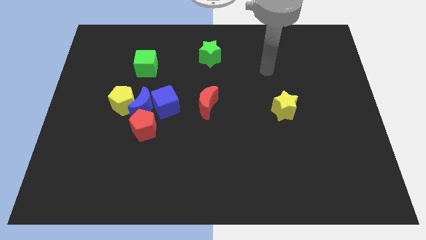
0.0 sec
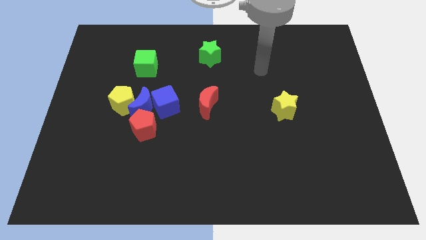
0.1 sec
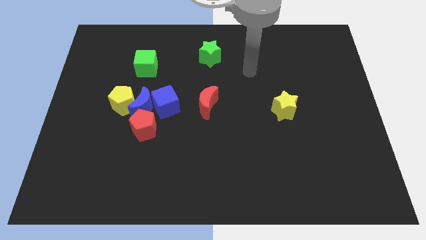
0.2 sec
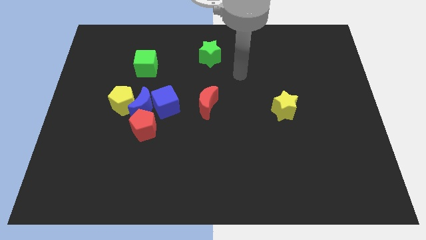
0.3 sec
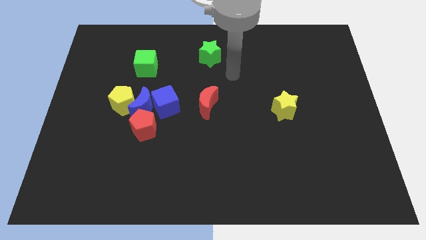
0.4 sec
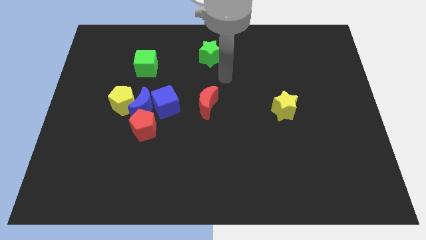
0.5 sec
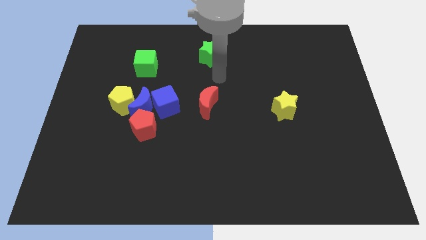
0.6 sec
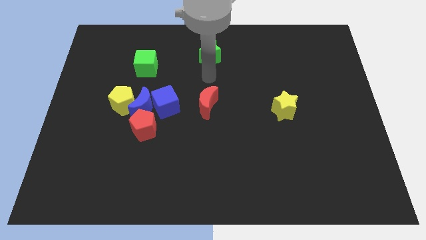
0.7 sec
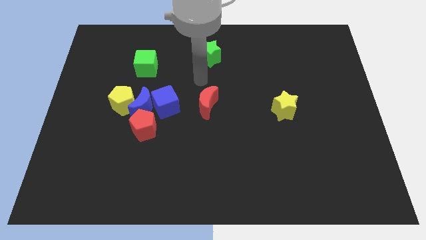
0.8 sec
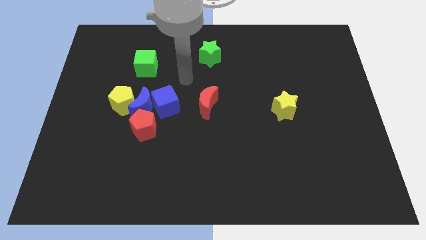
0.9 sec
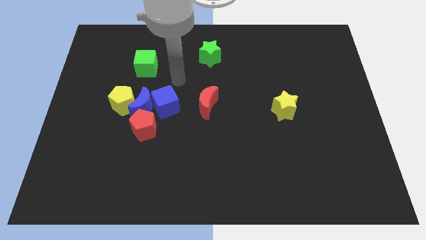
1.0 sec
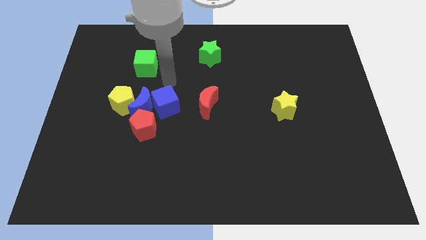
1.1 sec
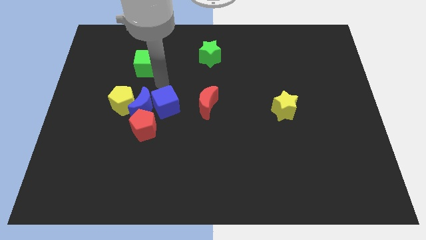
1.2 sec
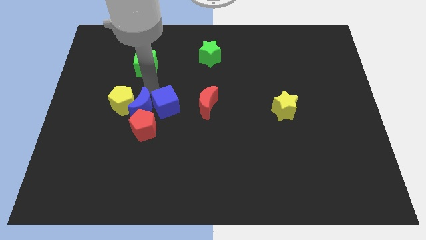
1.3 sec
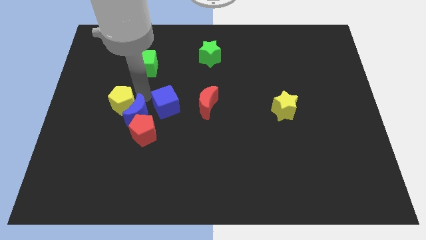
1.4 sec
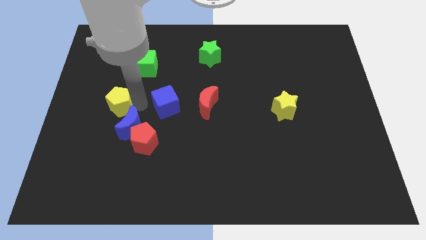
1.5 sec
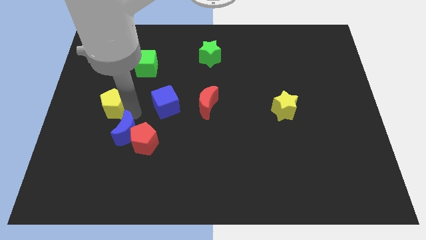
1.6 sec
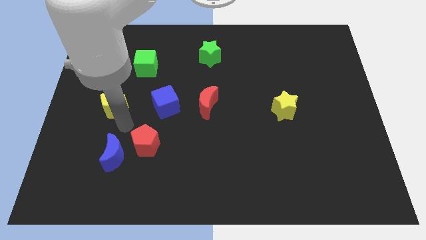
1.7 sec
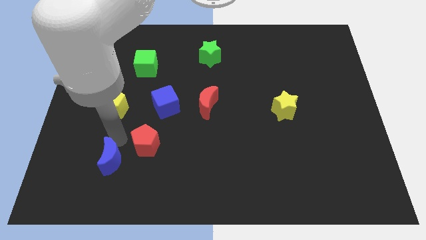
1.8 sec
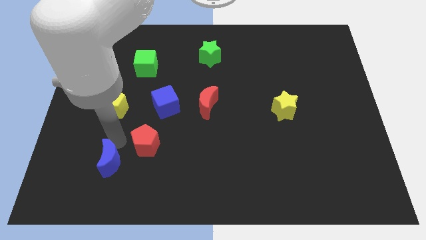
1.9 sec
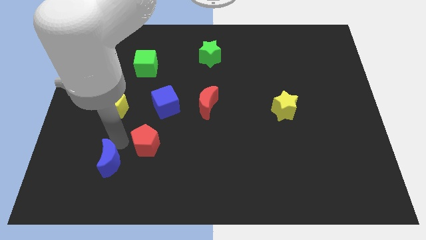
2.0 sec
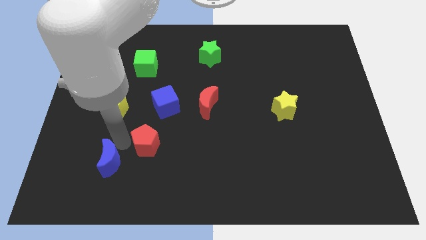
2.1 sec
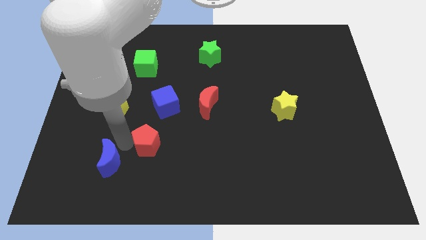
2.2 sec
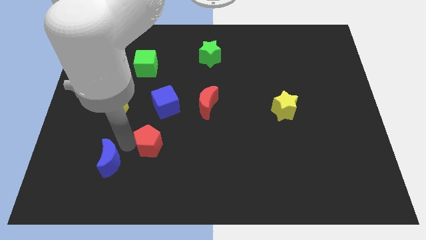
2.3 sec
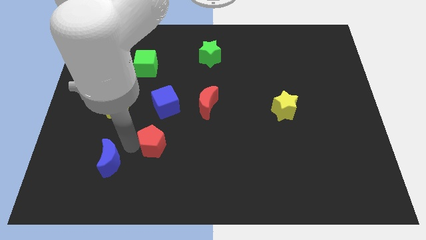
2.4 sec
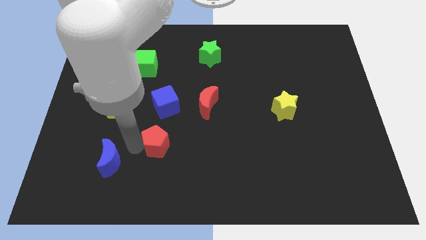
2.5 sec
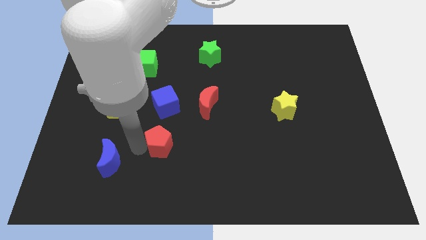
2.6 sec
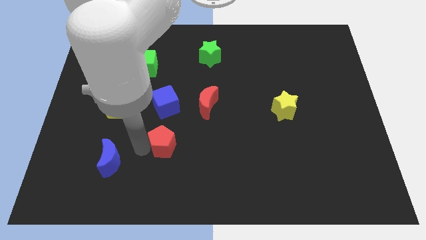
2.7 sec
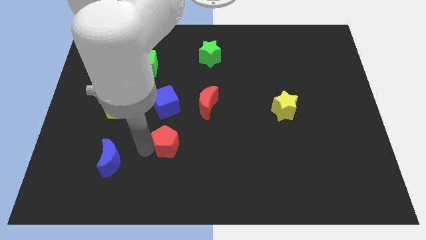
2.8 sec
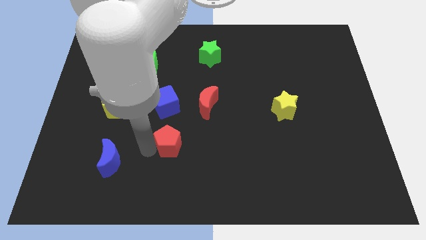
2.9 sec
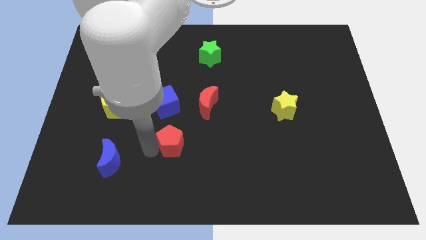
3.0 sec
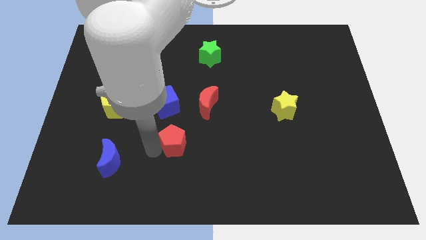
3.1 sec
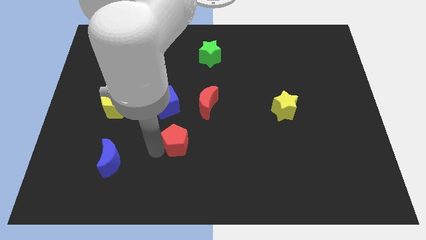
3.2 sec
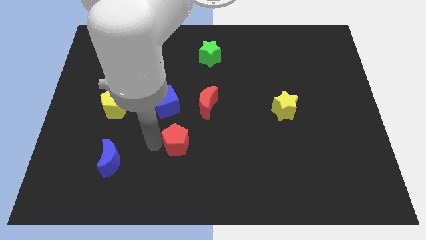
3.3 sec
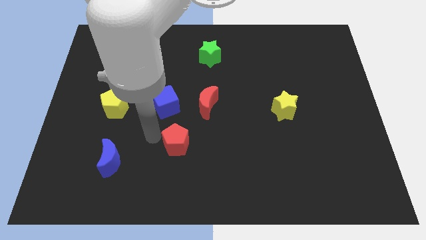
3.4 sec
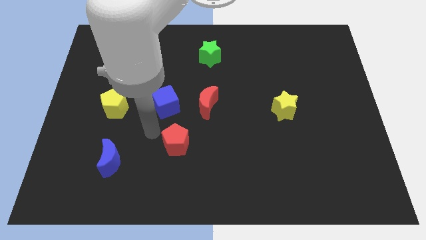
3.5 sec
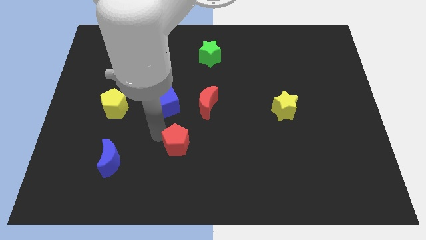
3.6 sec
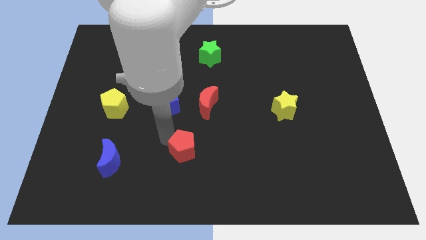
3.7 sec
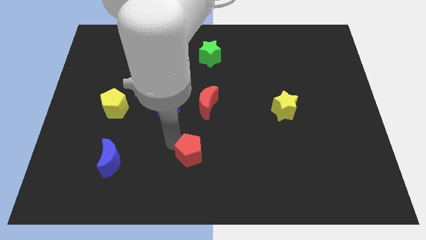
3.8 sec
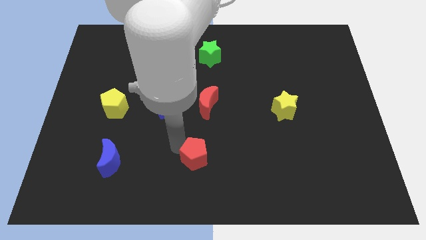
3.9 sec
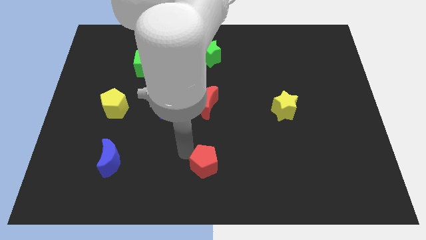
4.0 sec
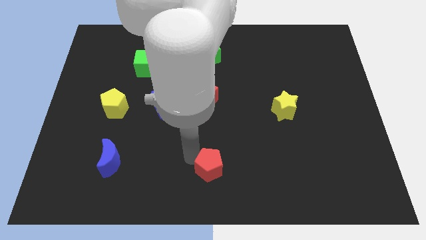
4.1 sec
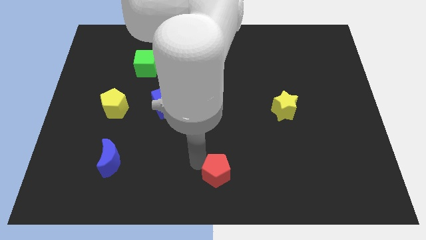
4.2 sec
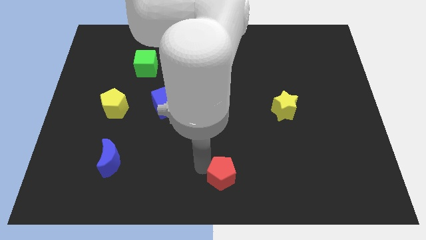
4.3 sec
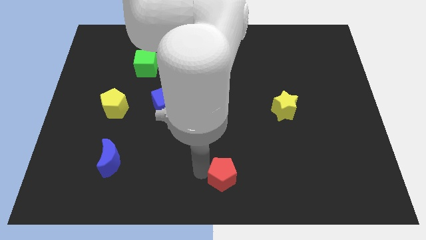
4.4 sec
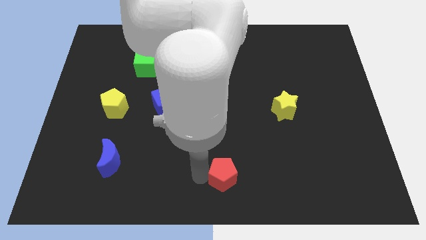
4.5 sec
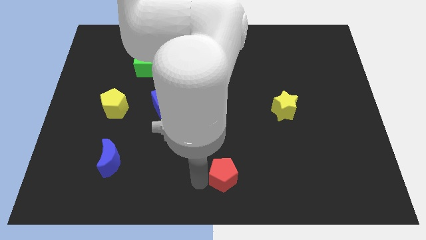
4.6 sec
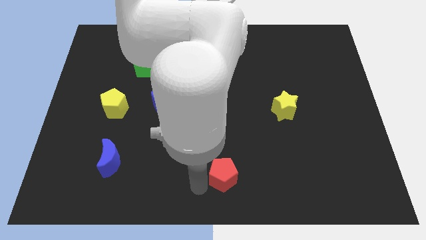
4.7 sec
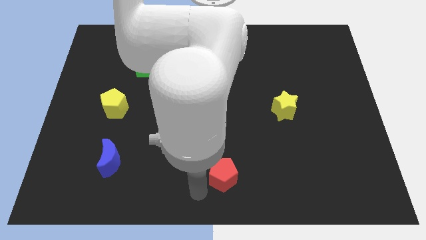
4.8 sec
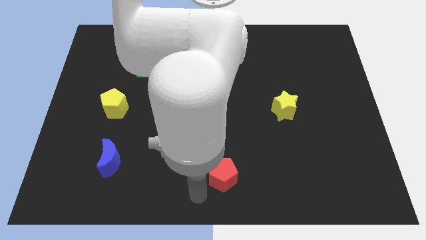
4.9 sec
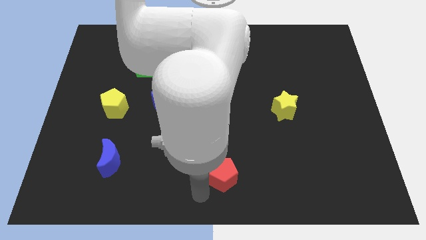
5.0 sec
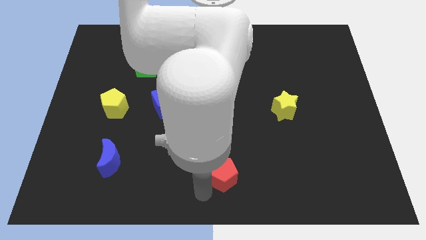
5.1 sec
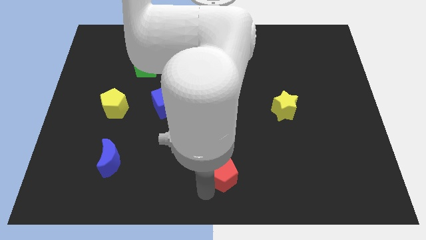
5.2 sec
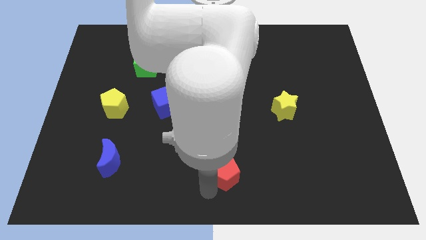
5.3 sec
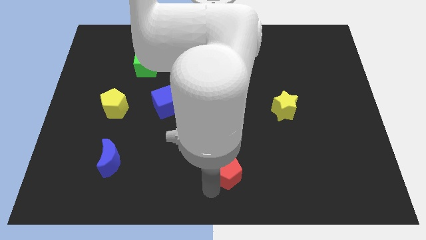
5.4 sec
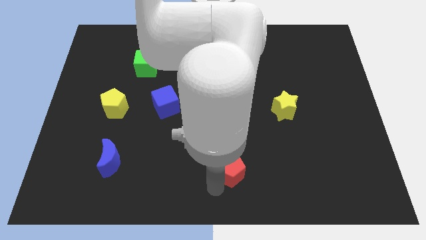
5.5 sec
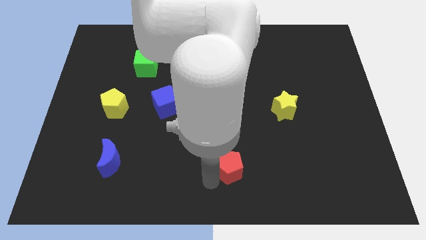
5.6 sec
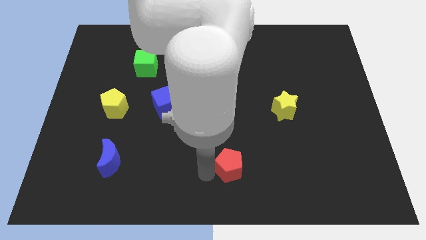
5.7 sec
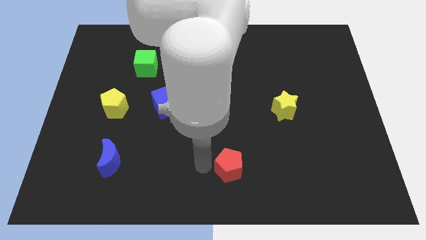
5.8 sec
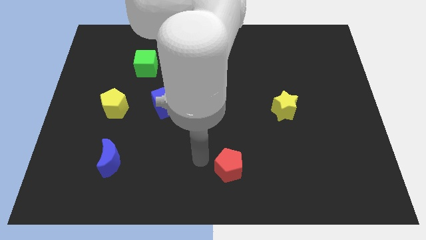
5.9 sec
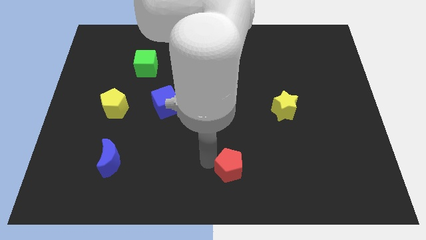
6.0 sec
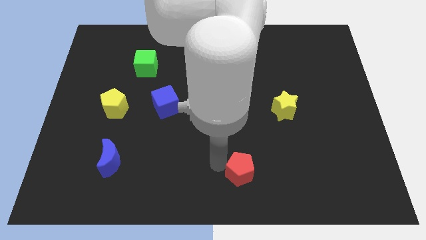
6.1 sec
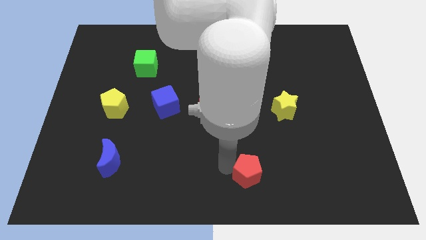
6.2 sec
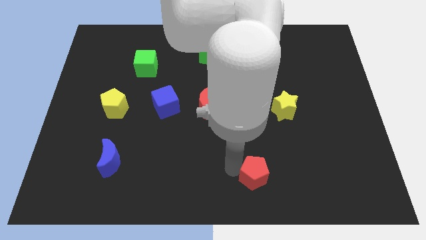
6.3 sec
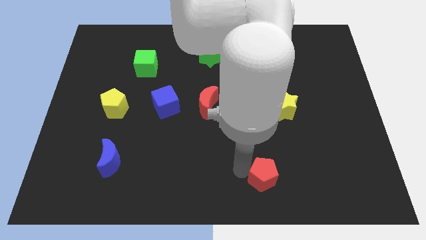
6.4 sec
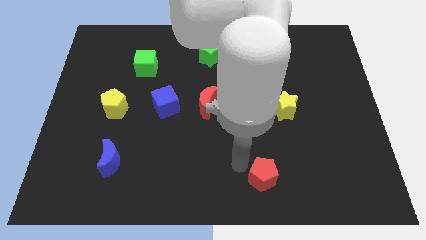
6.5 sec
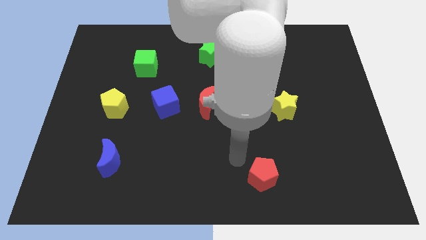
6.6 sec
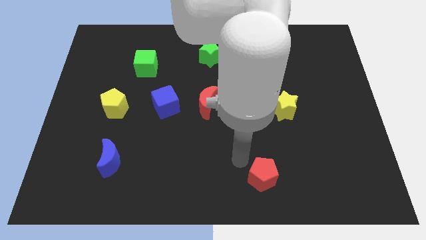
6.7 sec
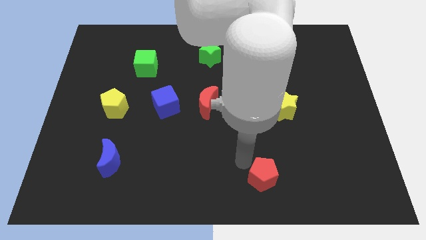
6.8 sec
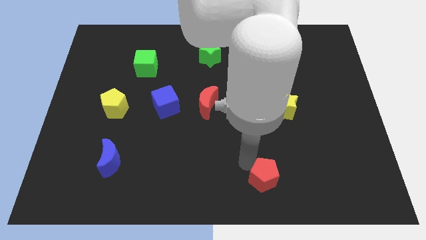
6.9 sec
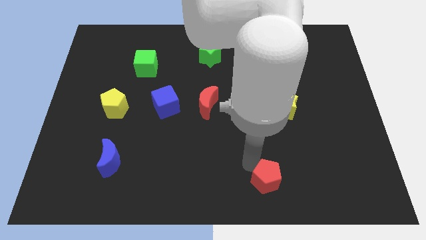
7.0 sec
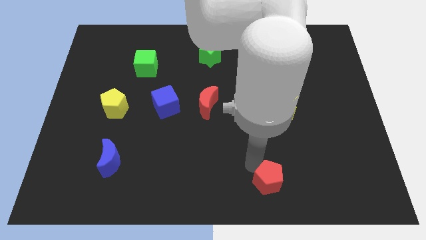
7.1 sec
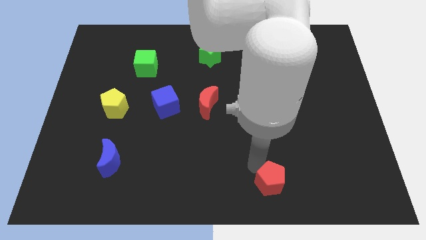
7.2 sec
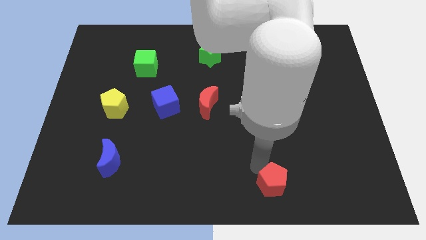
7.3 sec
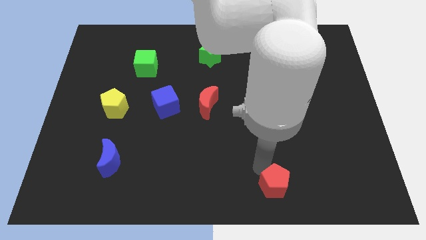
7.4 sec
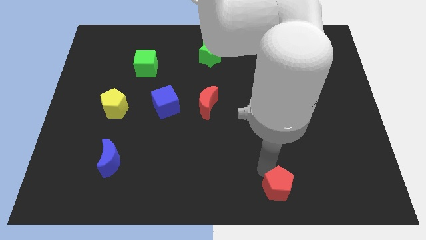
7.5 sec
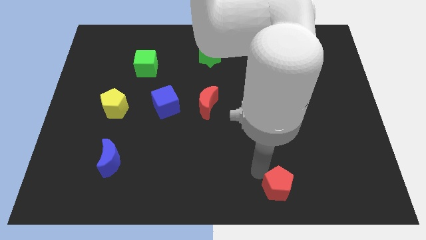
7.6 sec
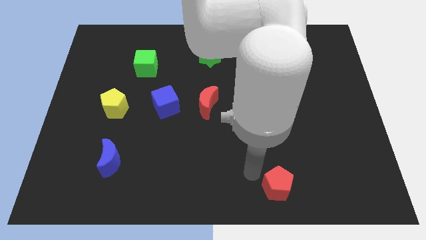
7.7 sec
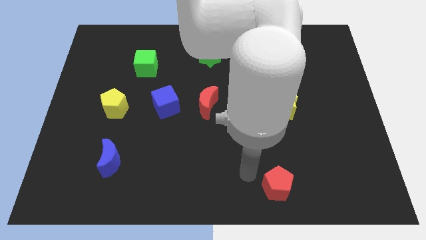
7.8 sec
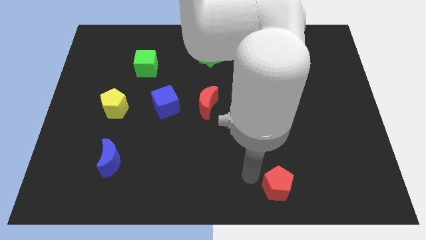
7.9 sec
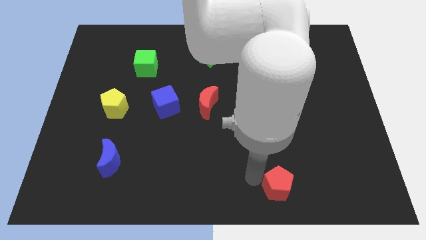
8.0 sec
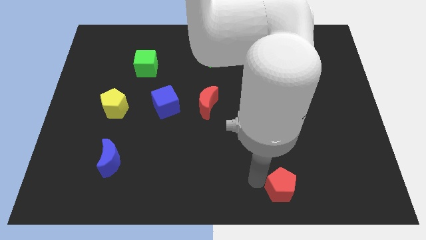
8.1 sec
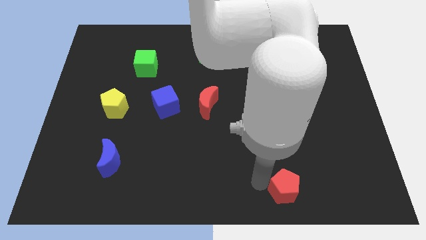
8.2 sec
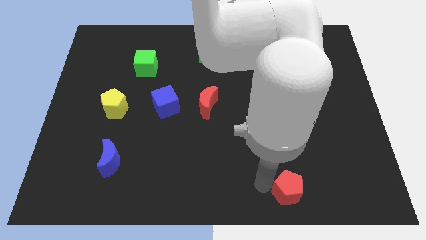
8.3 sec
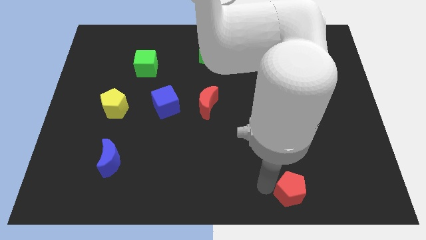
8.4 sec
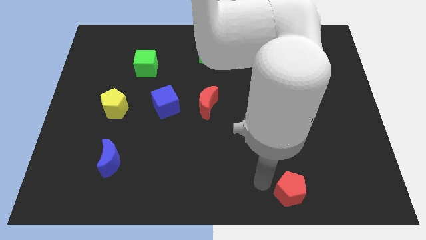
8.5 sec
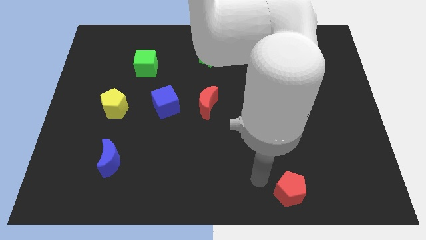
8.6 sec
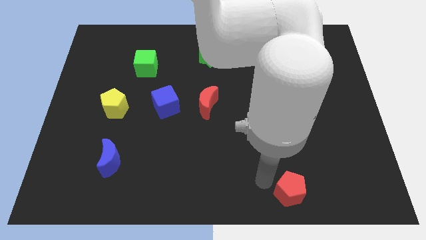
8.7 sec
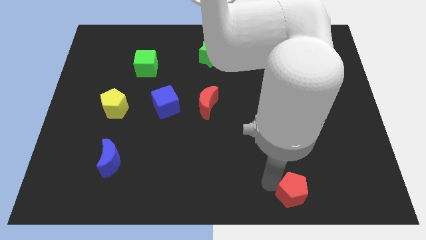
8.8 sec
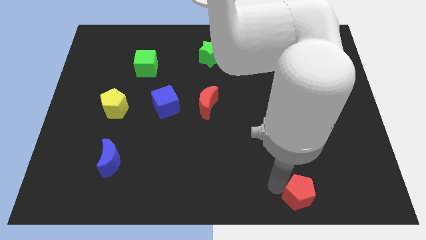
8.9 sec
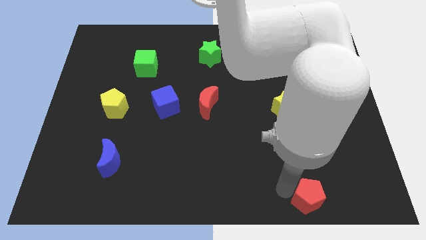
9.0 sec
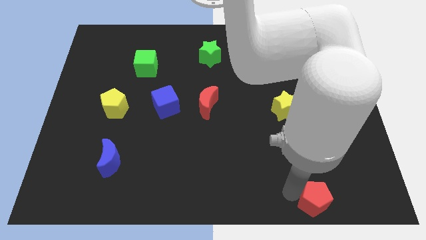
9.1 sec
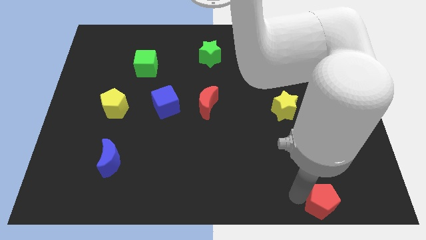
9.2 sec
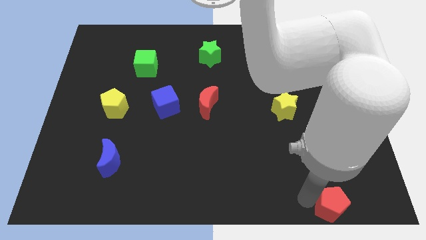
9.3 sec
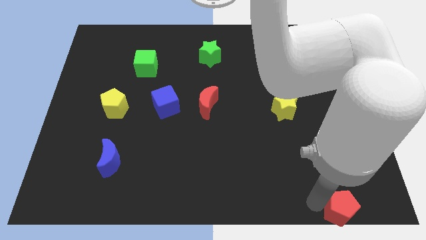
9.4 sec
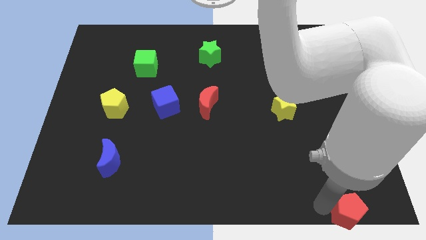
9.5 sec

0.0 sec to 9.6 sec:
push the red pentagon to the lower right corner
